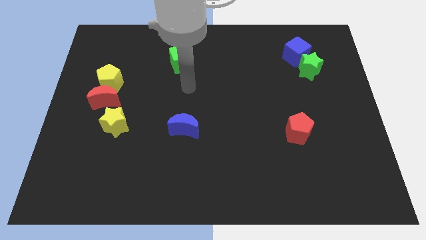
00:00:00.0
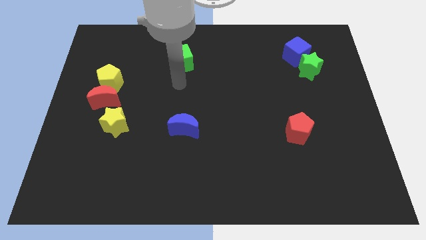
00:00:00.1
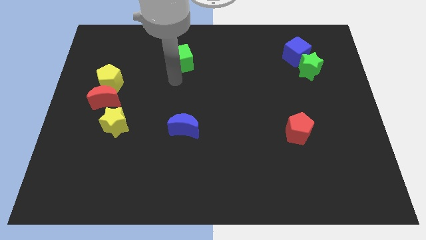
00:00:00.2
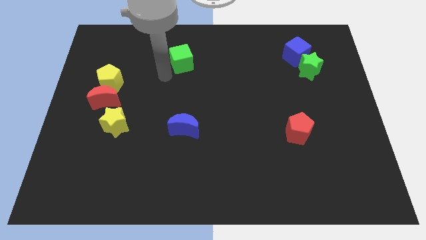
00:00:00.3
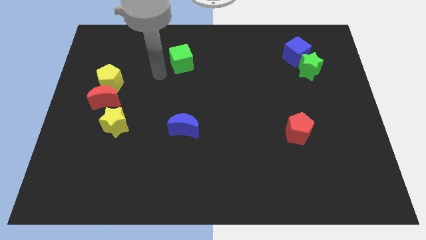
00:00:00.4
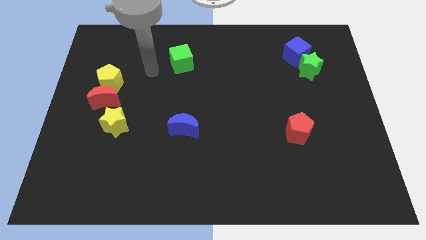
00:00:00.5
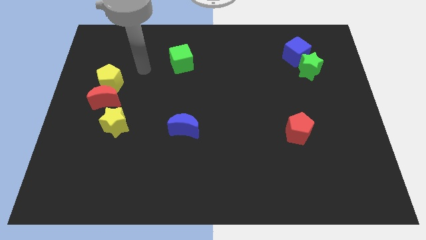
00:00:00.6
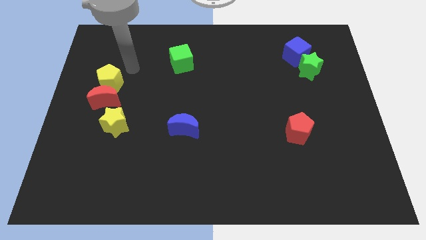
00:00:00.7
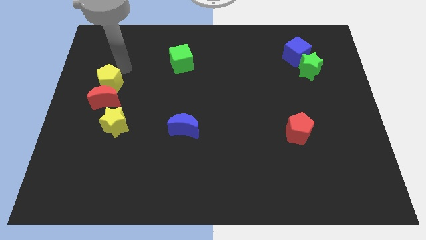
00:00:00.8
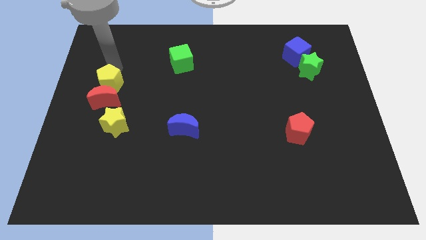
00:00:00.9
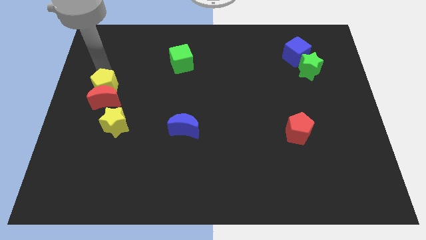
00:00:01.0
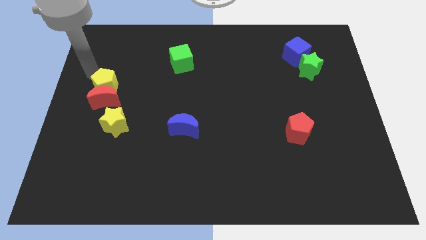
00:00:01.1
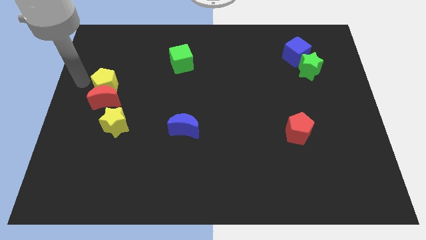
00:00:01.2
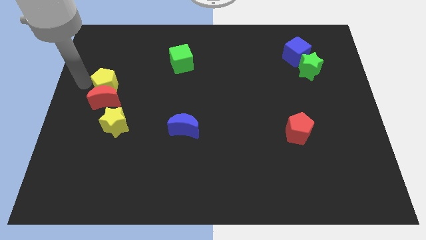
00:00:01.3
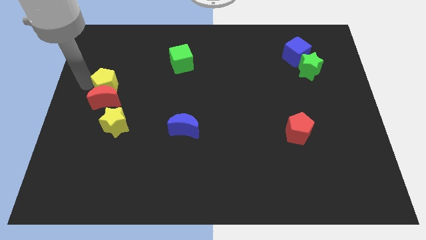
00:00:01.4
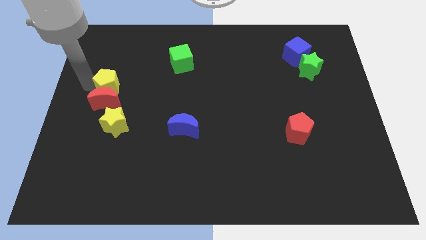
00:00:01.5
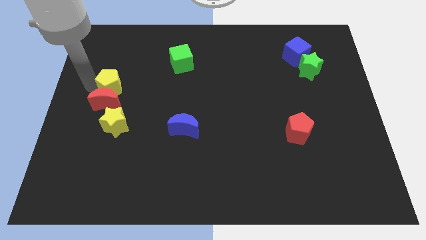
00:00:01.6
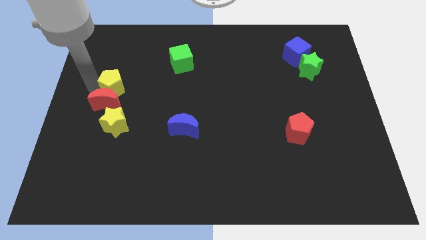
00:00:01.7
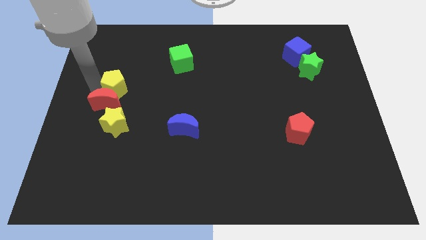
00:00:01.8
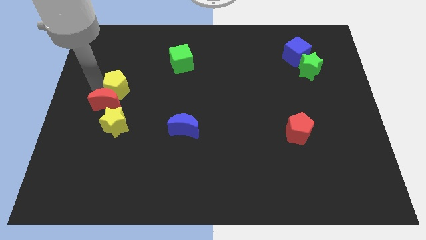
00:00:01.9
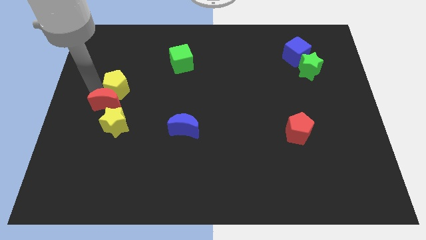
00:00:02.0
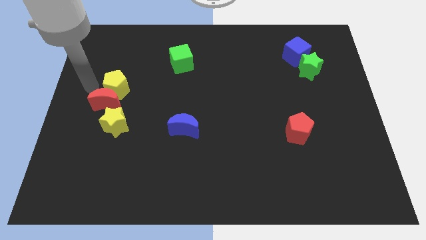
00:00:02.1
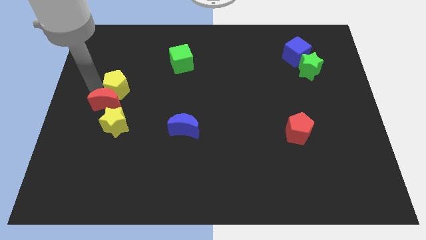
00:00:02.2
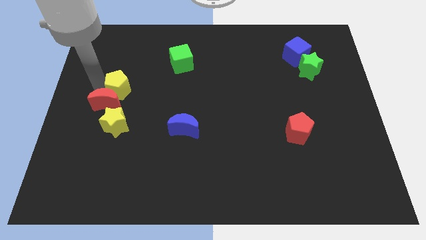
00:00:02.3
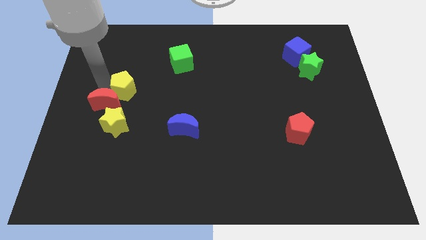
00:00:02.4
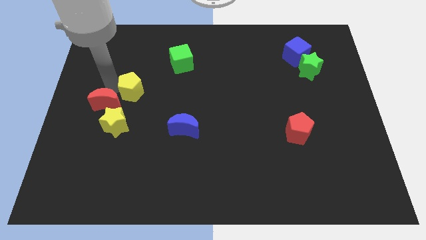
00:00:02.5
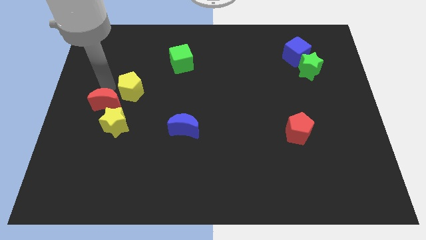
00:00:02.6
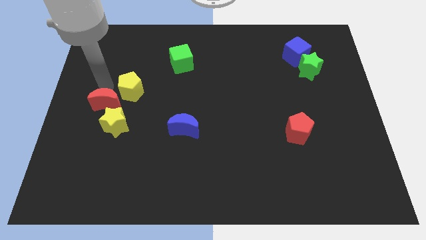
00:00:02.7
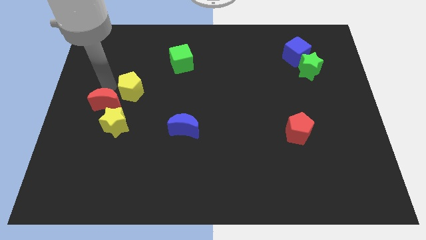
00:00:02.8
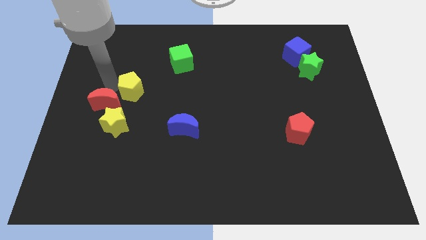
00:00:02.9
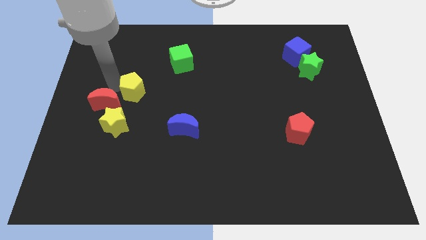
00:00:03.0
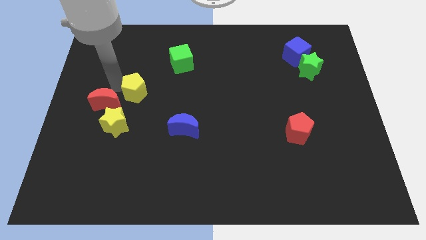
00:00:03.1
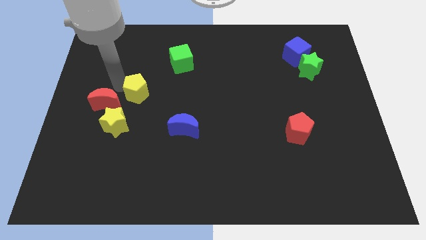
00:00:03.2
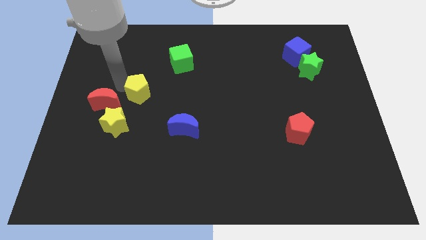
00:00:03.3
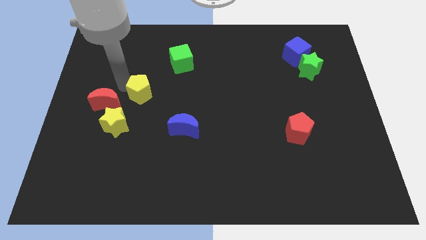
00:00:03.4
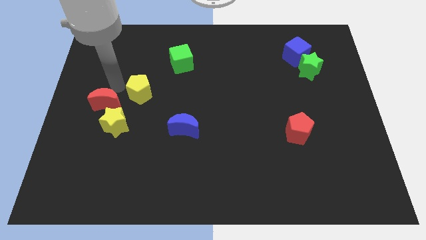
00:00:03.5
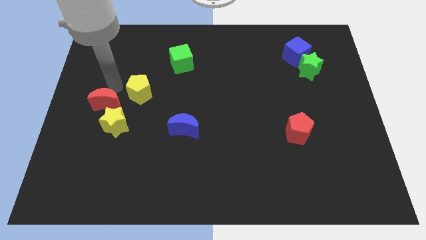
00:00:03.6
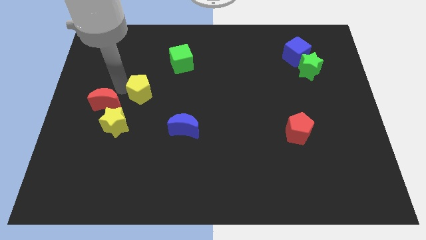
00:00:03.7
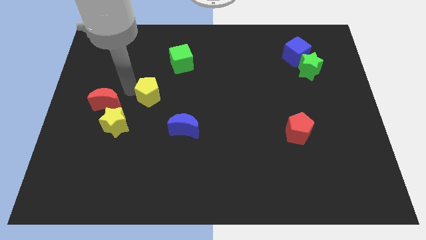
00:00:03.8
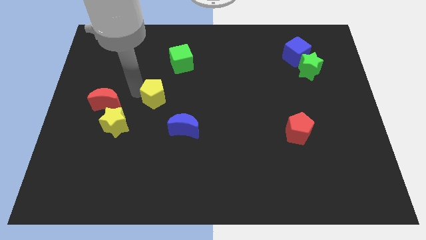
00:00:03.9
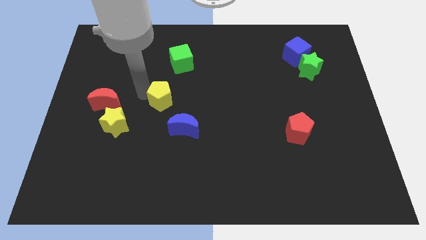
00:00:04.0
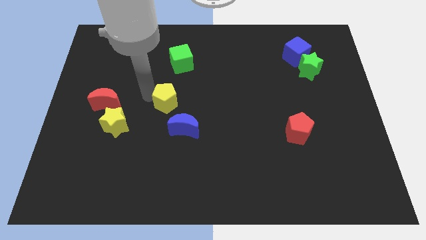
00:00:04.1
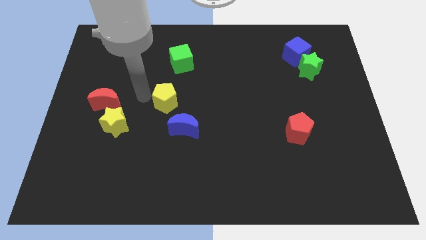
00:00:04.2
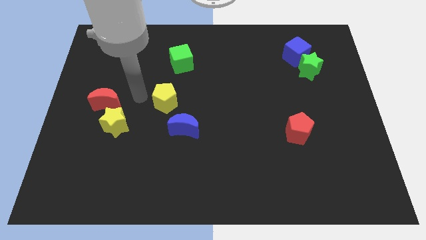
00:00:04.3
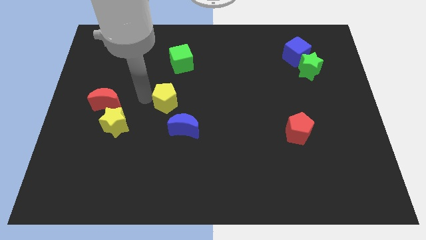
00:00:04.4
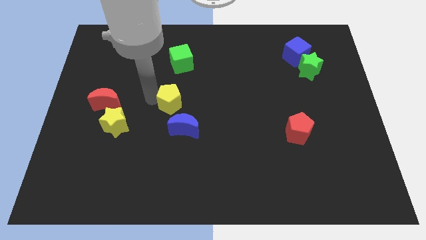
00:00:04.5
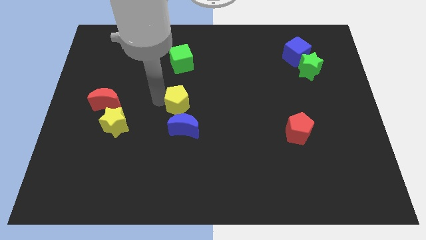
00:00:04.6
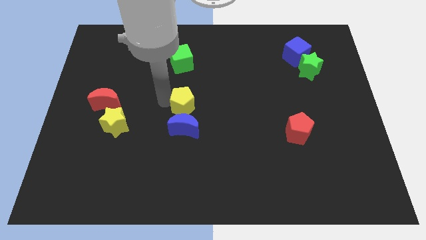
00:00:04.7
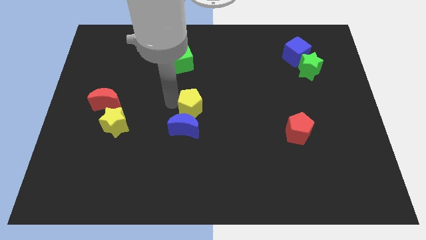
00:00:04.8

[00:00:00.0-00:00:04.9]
slide the yellow pentagon to the top right side of the blue moon

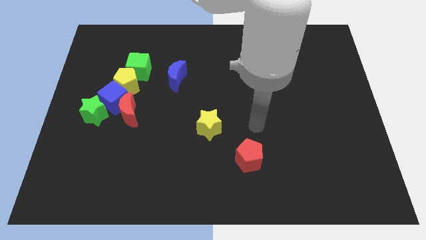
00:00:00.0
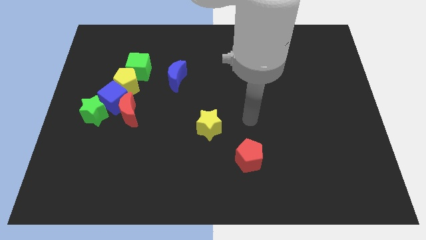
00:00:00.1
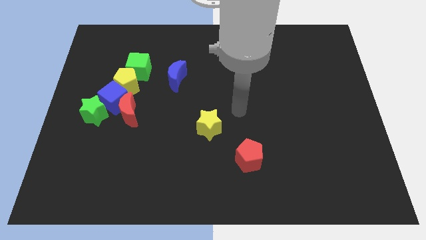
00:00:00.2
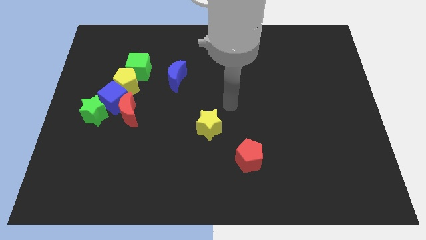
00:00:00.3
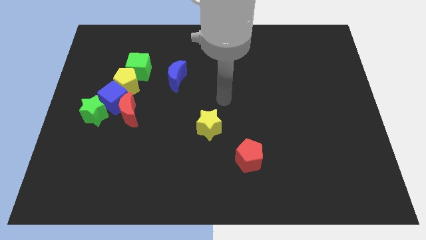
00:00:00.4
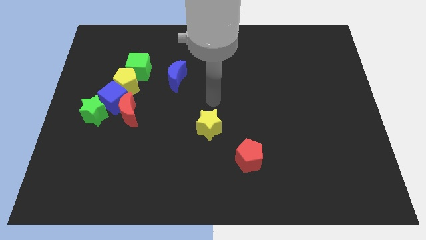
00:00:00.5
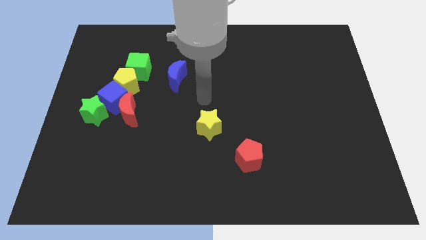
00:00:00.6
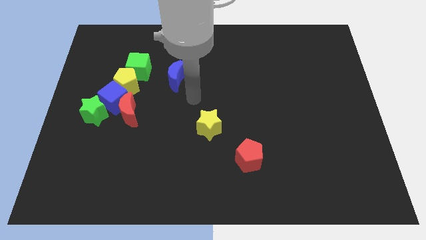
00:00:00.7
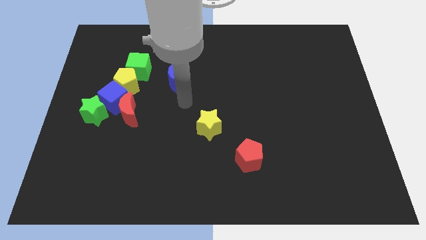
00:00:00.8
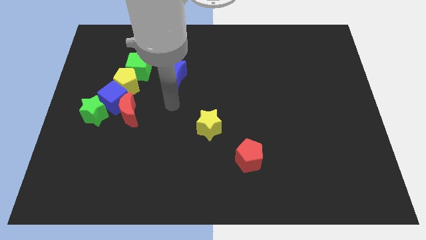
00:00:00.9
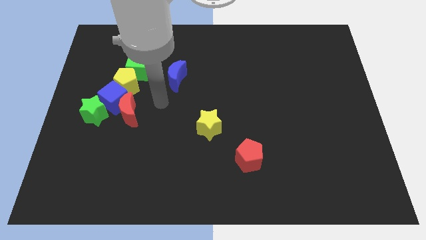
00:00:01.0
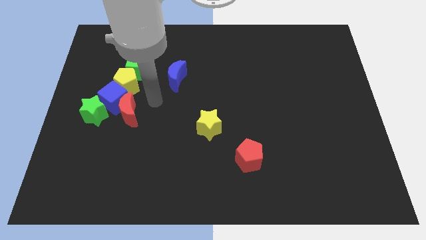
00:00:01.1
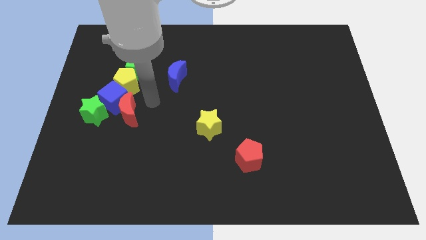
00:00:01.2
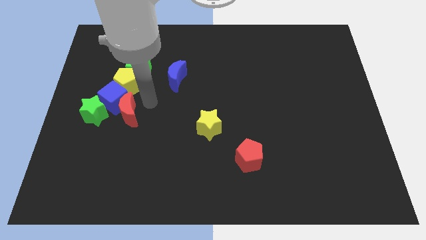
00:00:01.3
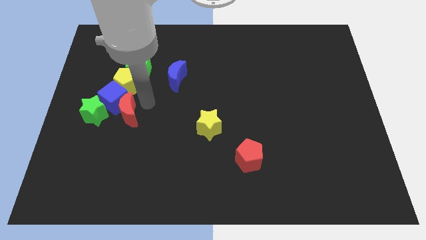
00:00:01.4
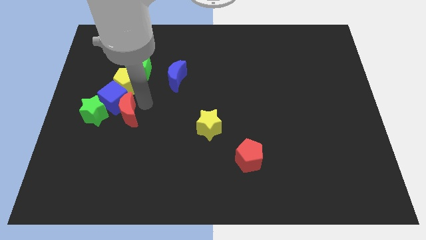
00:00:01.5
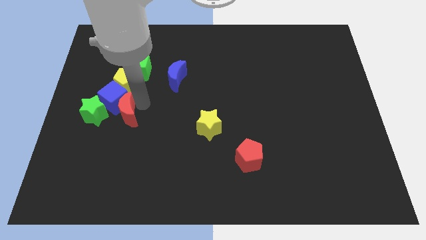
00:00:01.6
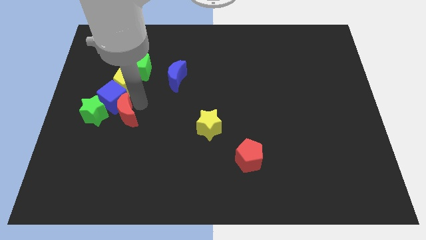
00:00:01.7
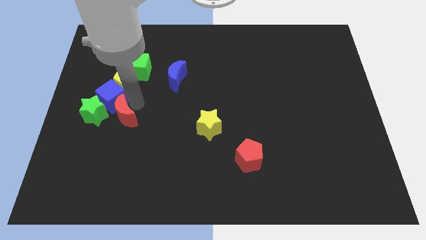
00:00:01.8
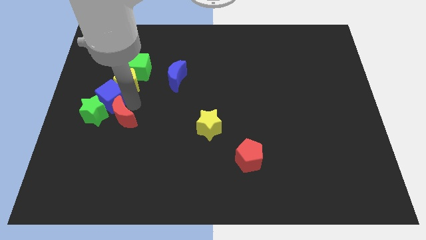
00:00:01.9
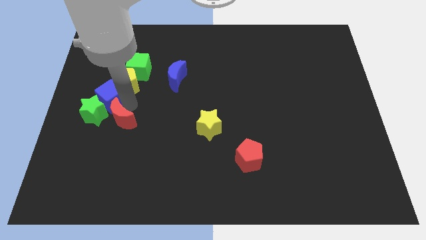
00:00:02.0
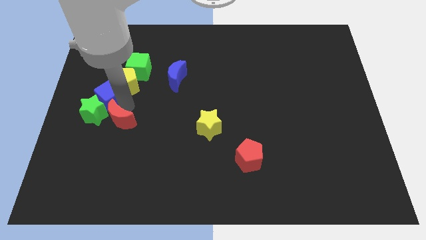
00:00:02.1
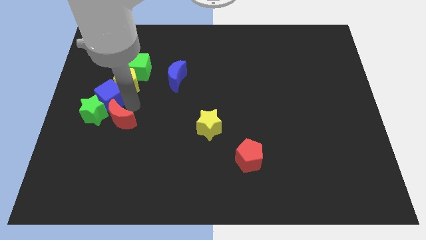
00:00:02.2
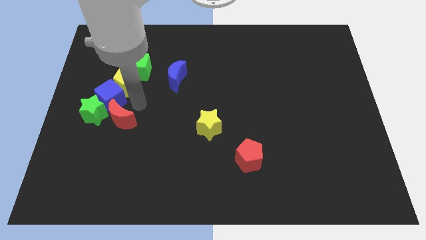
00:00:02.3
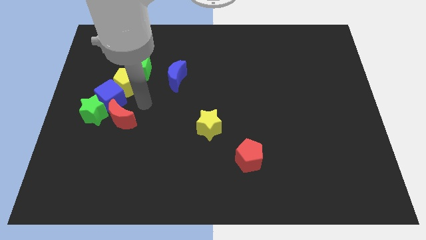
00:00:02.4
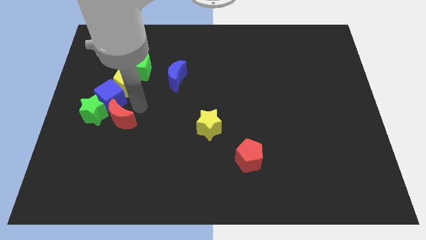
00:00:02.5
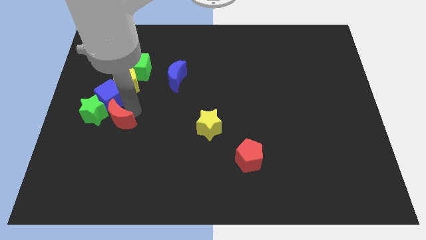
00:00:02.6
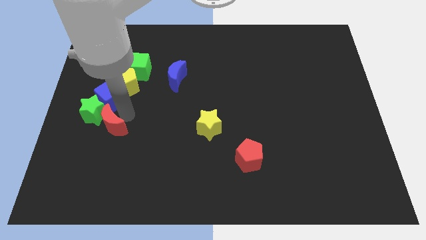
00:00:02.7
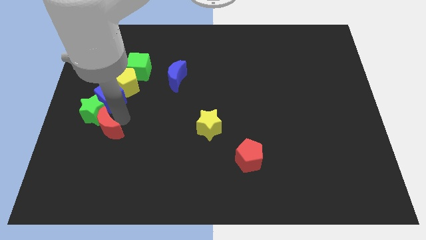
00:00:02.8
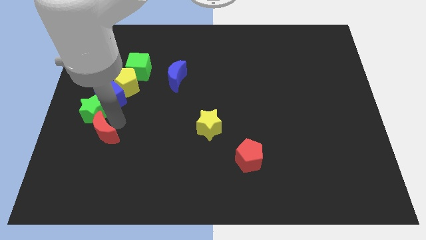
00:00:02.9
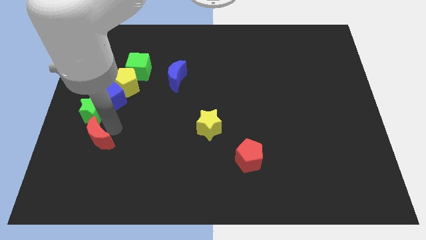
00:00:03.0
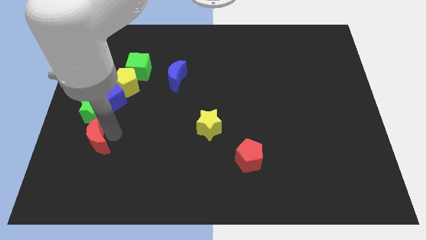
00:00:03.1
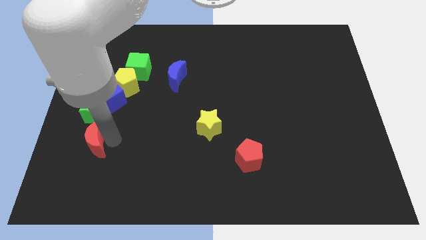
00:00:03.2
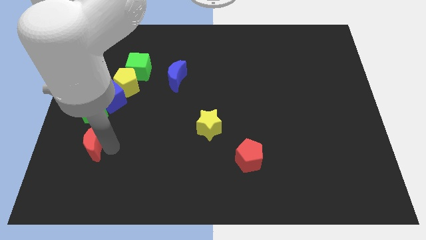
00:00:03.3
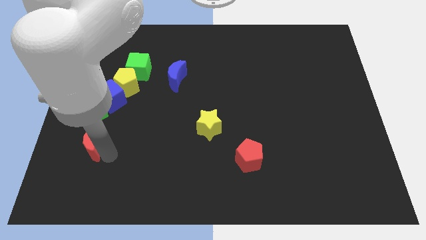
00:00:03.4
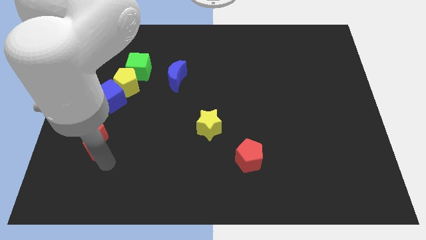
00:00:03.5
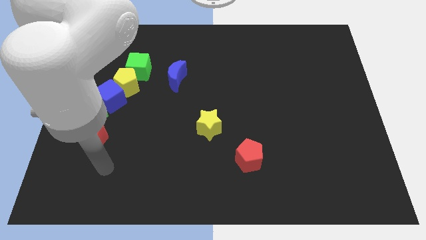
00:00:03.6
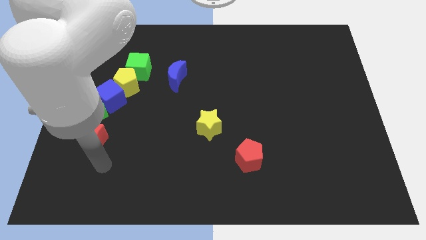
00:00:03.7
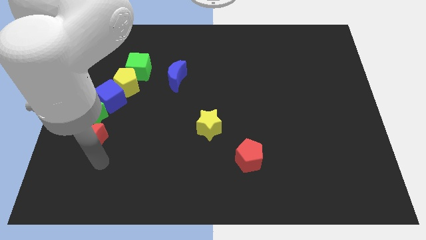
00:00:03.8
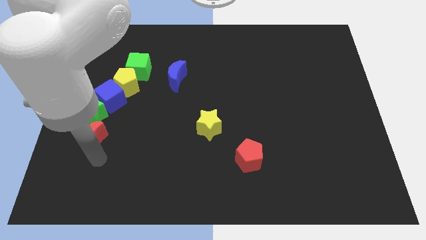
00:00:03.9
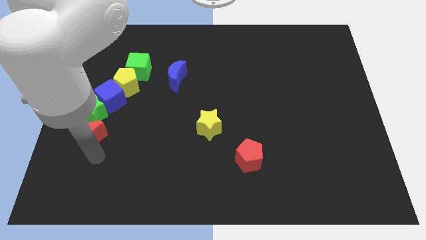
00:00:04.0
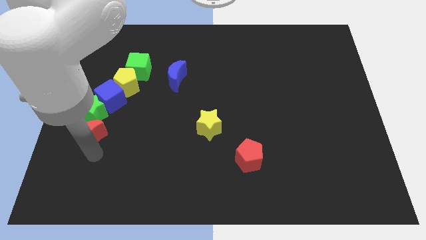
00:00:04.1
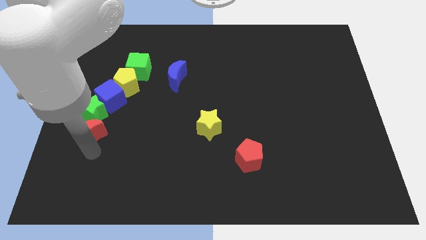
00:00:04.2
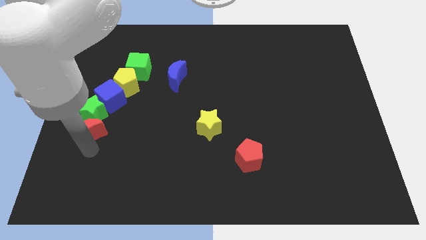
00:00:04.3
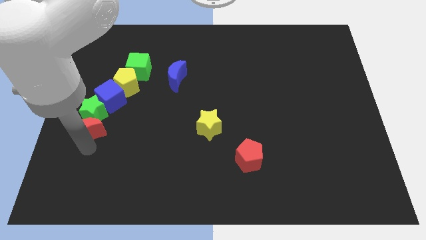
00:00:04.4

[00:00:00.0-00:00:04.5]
move the red moon to the bottom left of the blue cube
